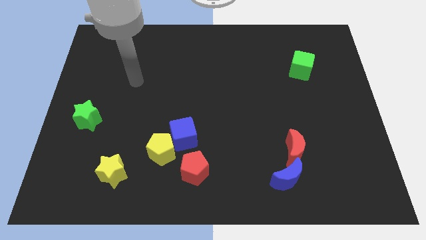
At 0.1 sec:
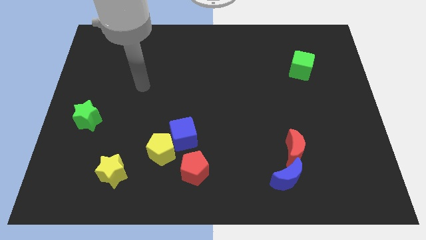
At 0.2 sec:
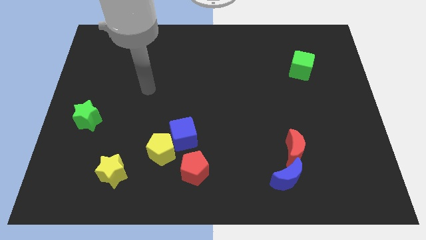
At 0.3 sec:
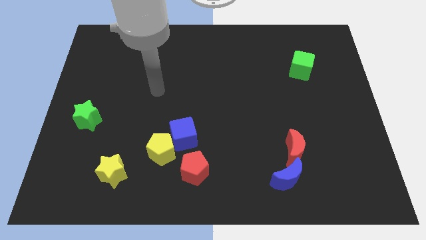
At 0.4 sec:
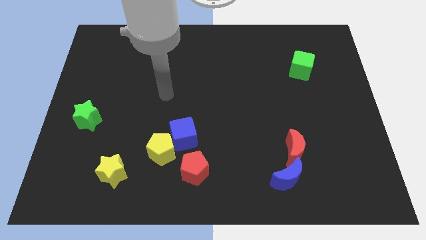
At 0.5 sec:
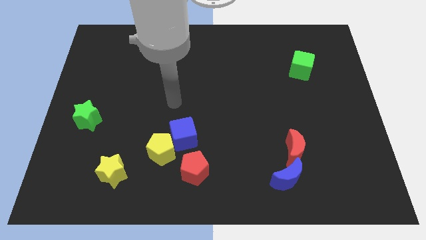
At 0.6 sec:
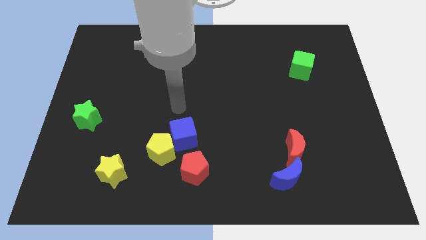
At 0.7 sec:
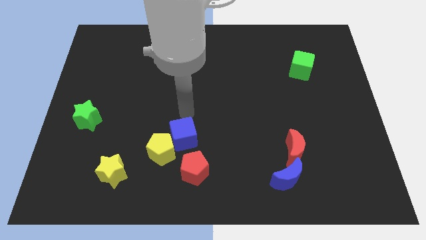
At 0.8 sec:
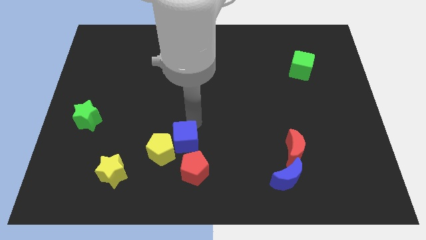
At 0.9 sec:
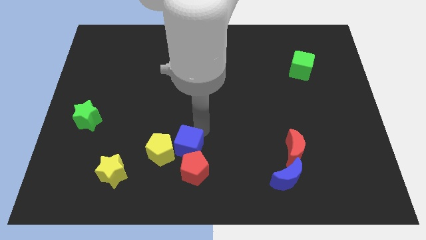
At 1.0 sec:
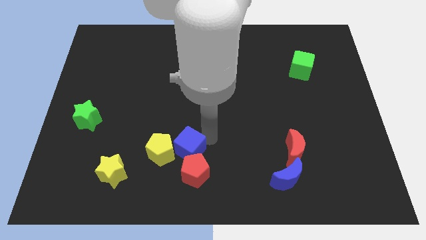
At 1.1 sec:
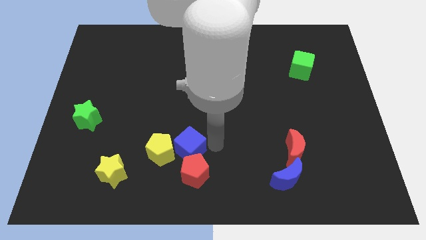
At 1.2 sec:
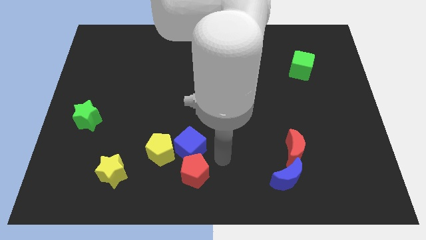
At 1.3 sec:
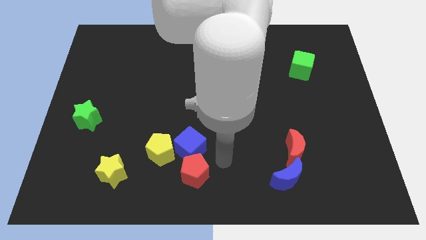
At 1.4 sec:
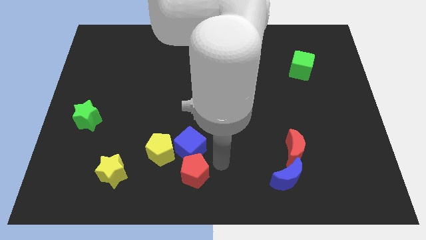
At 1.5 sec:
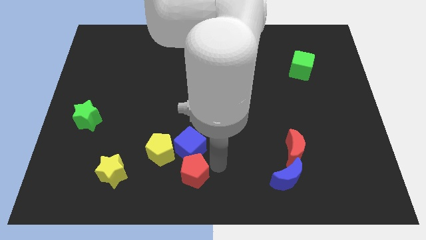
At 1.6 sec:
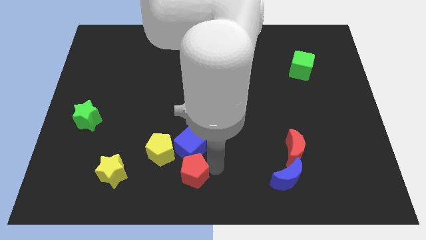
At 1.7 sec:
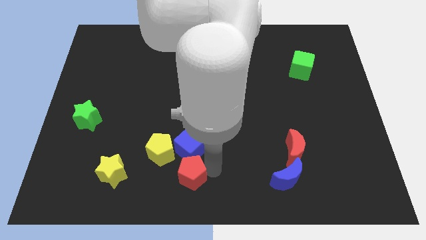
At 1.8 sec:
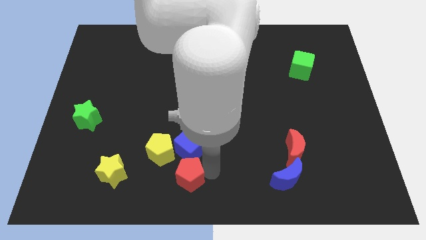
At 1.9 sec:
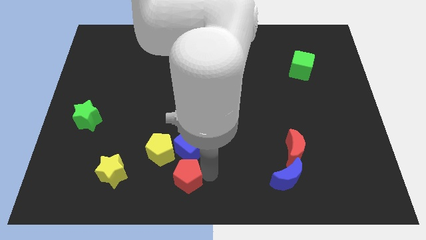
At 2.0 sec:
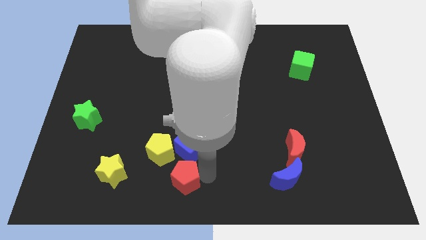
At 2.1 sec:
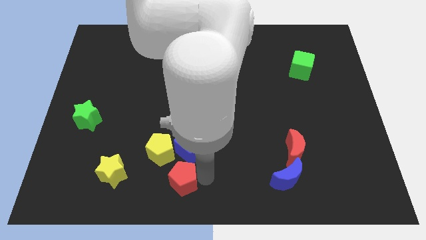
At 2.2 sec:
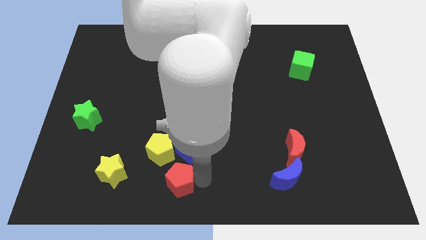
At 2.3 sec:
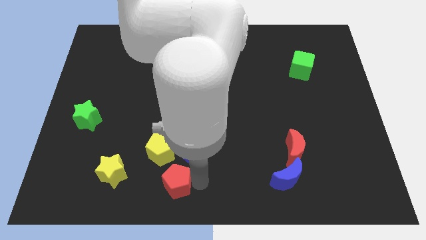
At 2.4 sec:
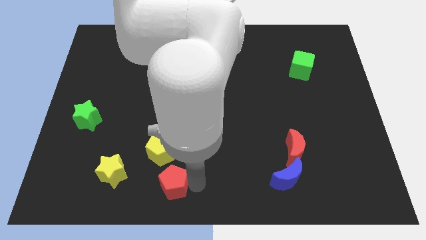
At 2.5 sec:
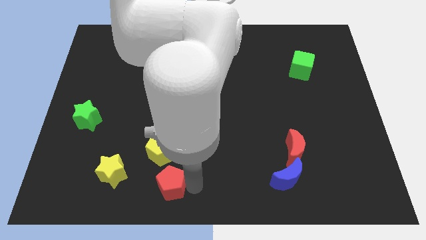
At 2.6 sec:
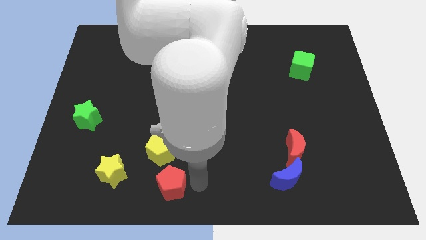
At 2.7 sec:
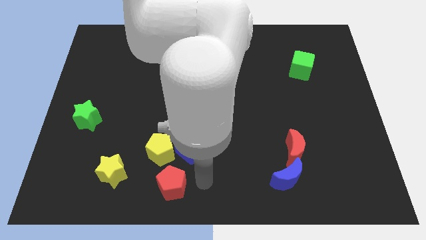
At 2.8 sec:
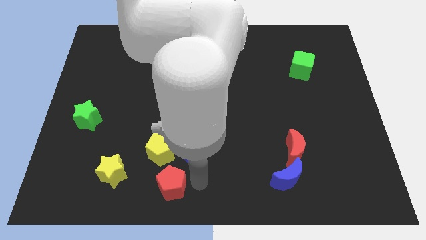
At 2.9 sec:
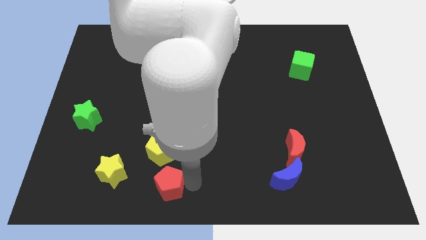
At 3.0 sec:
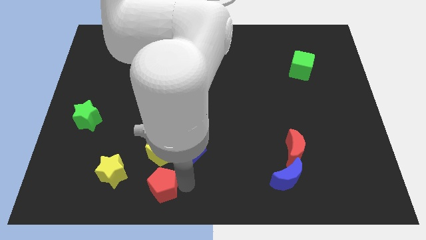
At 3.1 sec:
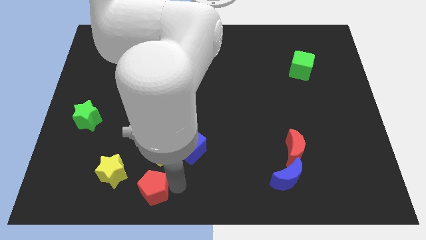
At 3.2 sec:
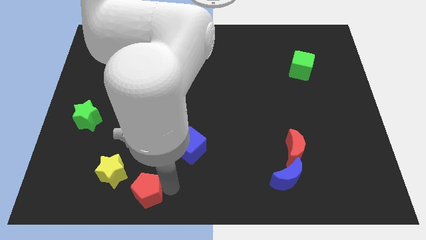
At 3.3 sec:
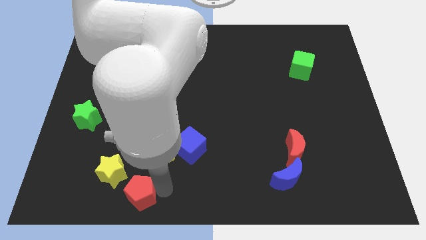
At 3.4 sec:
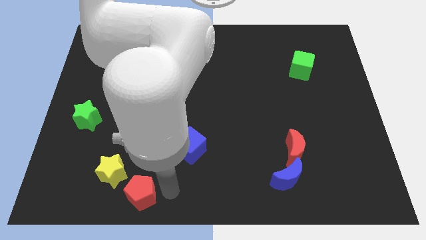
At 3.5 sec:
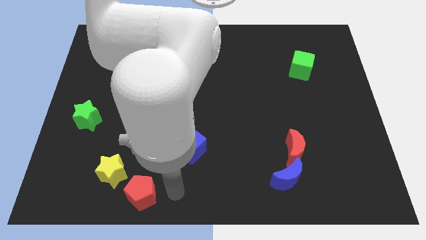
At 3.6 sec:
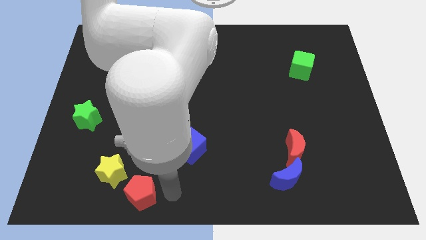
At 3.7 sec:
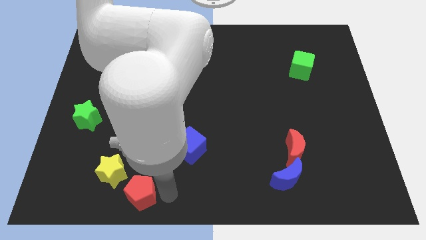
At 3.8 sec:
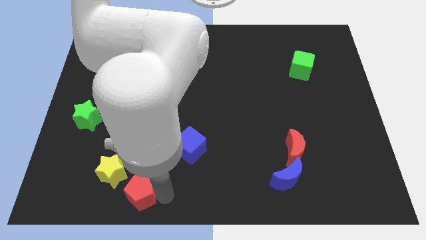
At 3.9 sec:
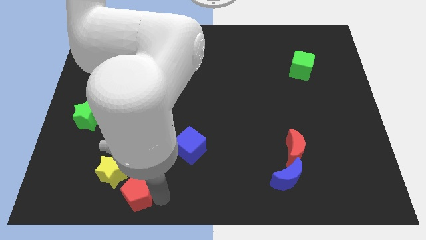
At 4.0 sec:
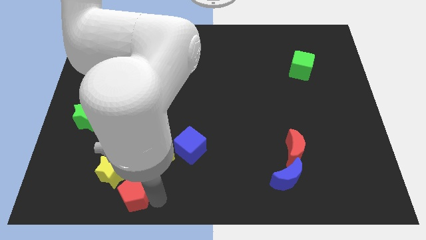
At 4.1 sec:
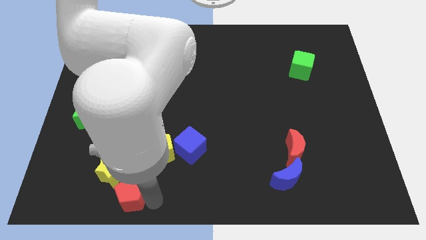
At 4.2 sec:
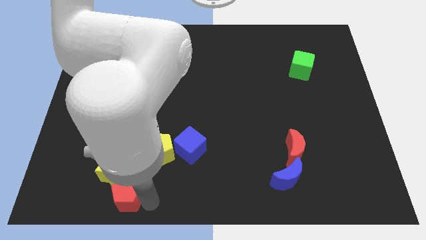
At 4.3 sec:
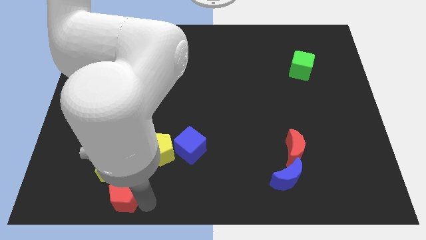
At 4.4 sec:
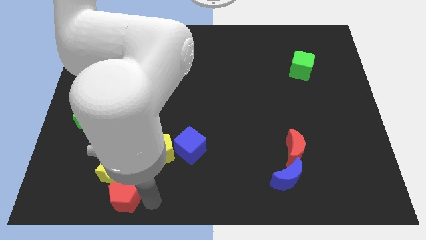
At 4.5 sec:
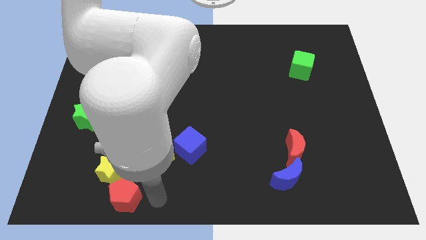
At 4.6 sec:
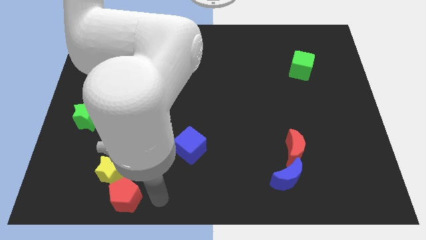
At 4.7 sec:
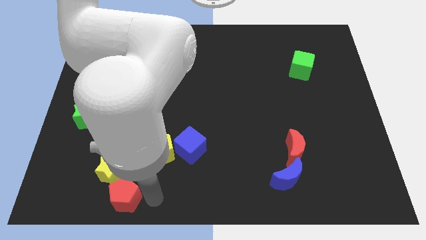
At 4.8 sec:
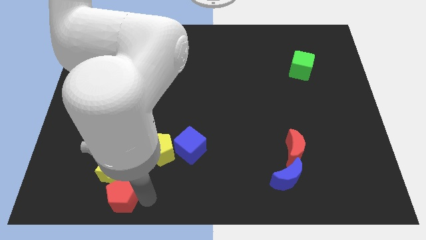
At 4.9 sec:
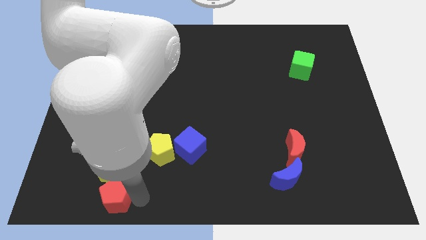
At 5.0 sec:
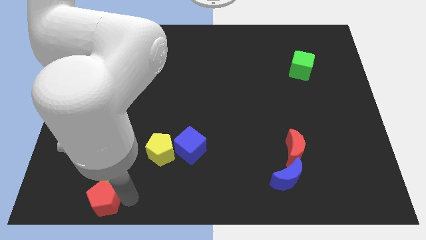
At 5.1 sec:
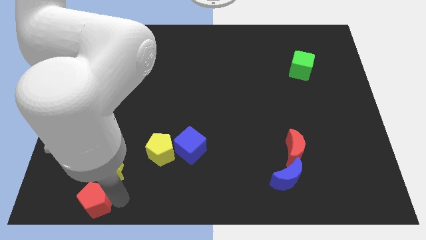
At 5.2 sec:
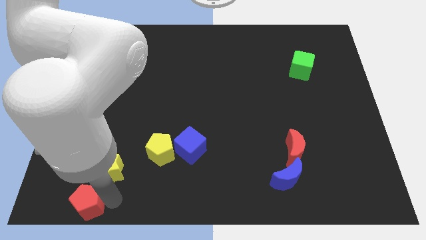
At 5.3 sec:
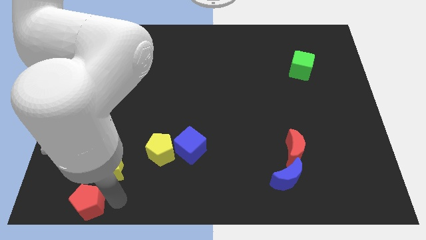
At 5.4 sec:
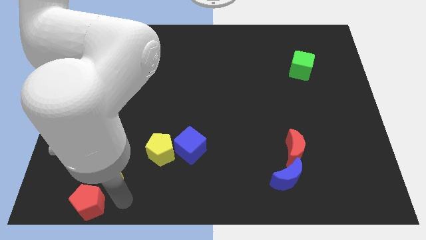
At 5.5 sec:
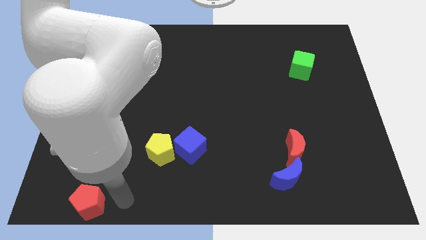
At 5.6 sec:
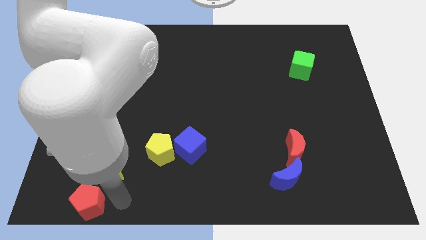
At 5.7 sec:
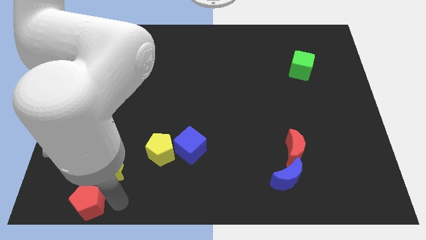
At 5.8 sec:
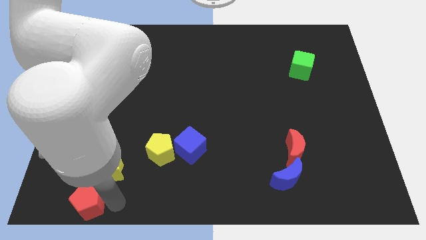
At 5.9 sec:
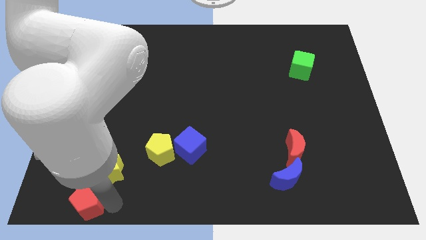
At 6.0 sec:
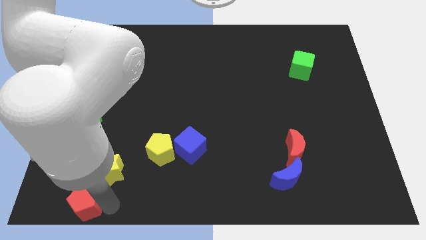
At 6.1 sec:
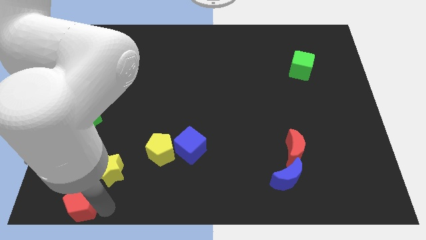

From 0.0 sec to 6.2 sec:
slide the red pentagon to the lower left corner
